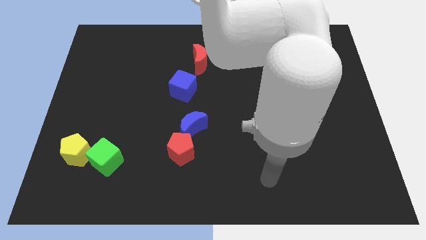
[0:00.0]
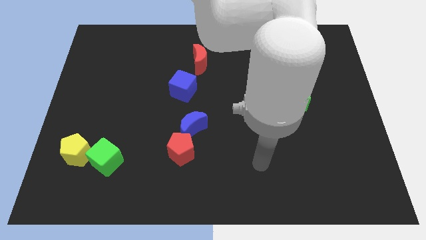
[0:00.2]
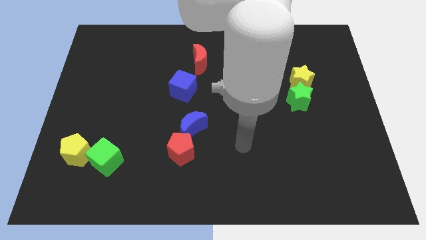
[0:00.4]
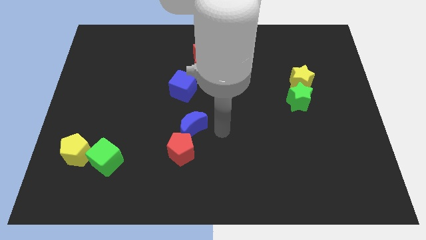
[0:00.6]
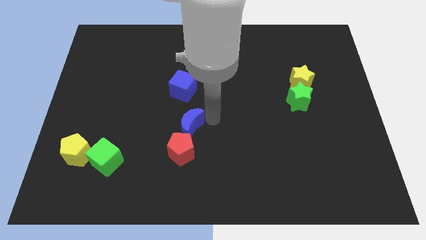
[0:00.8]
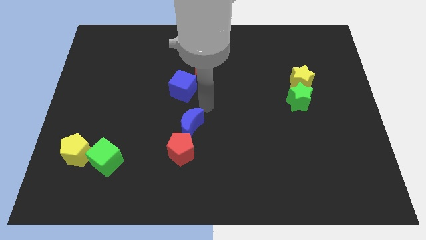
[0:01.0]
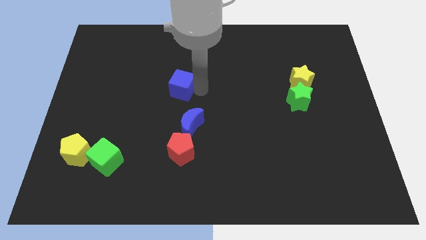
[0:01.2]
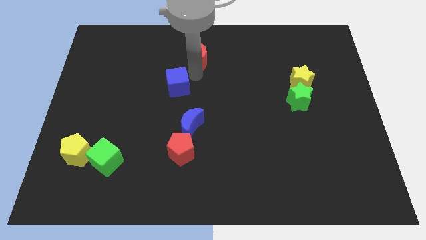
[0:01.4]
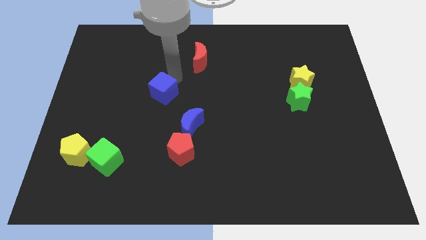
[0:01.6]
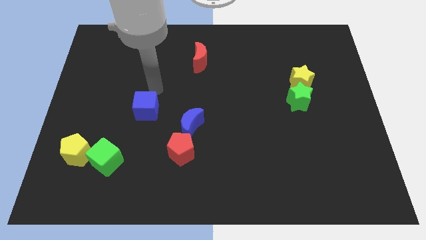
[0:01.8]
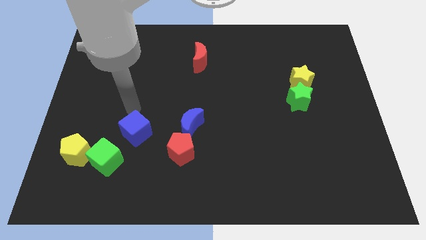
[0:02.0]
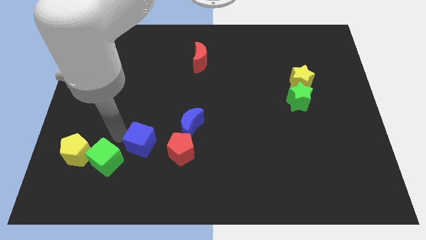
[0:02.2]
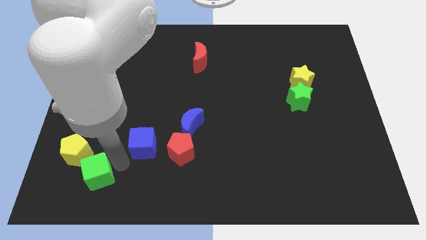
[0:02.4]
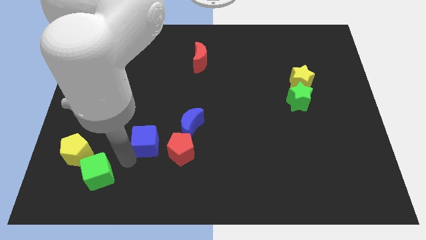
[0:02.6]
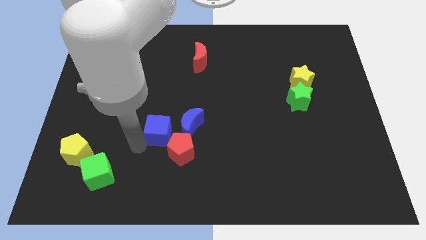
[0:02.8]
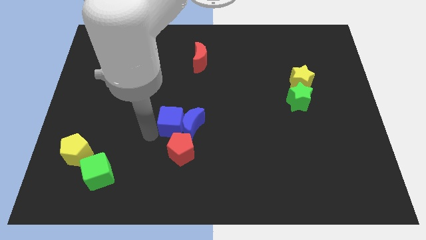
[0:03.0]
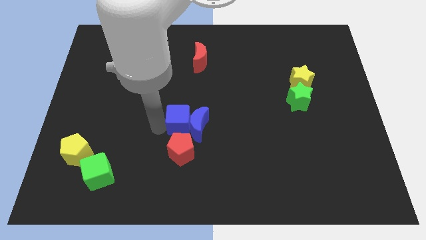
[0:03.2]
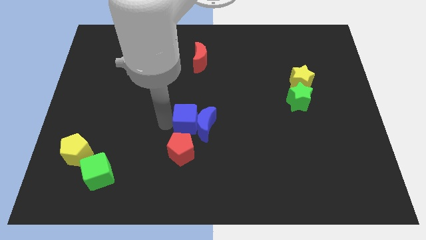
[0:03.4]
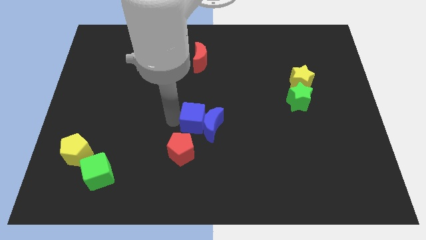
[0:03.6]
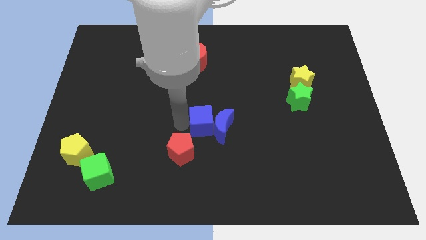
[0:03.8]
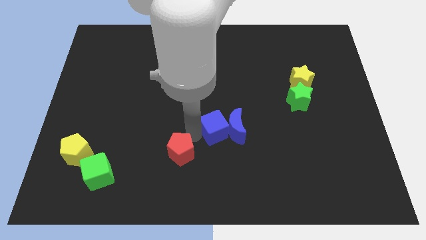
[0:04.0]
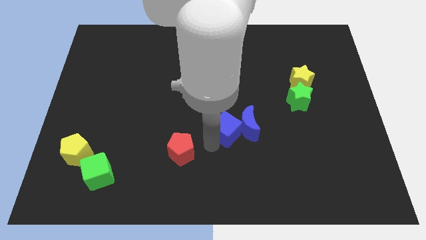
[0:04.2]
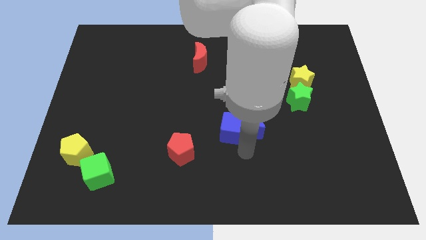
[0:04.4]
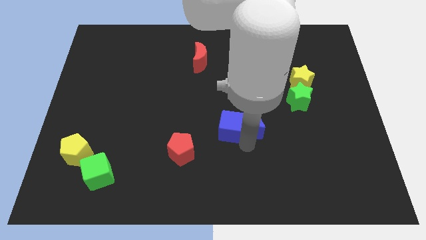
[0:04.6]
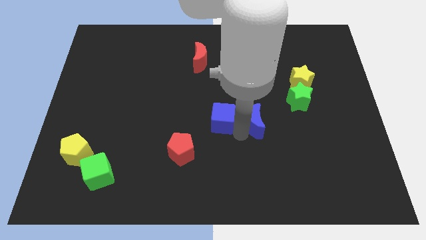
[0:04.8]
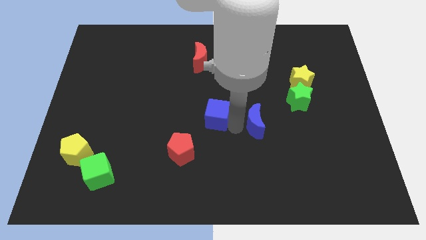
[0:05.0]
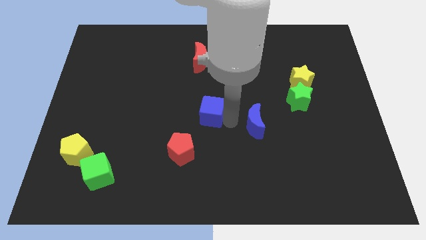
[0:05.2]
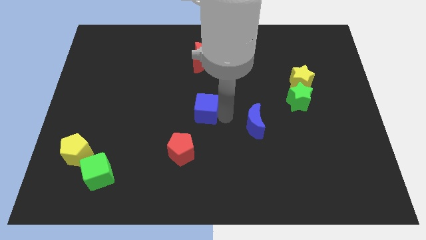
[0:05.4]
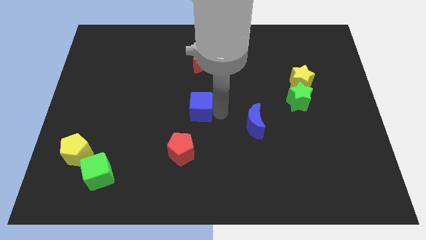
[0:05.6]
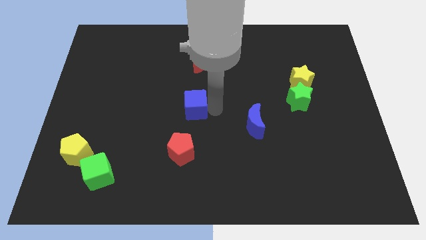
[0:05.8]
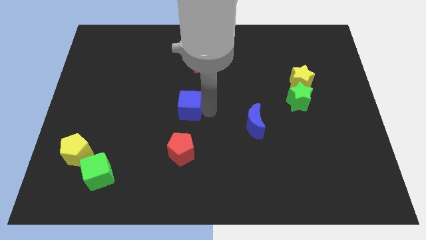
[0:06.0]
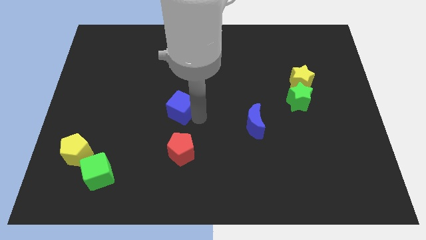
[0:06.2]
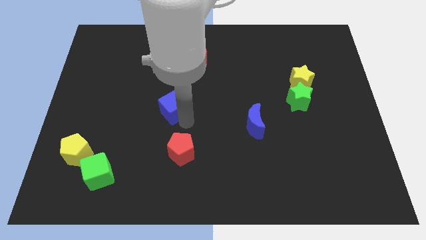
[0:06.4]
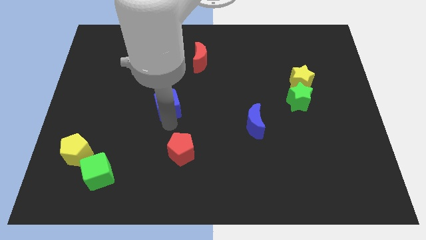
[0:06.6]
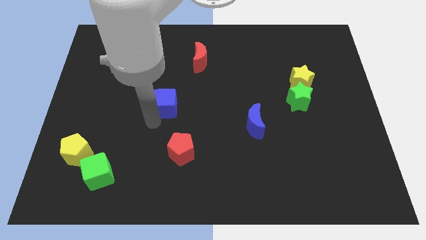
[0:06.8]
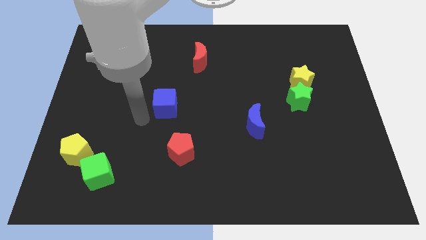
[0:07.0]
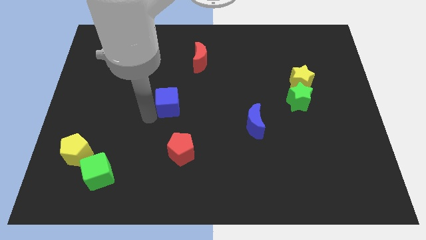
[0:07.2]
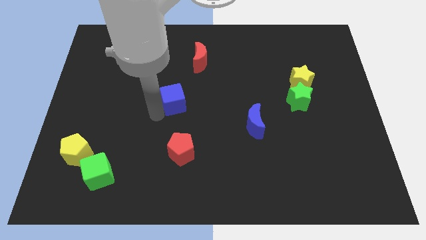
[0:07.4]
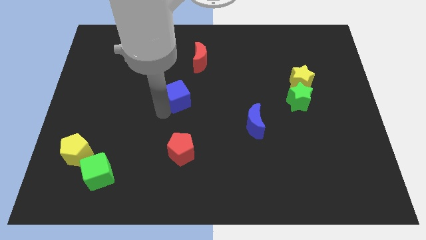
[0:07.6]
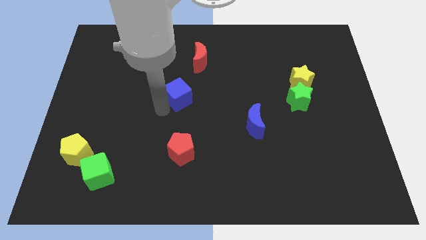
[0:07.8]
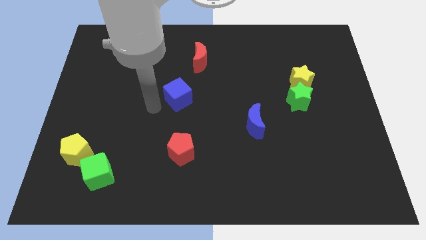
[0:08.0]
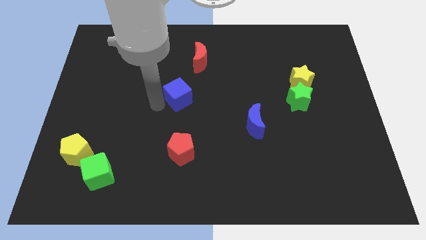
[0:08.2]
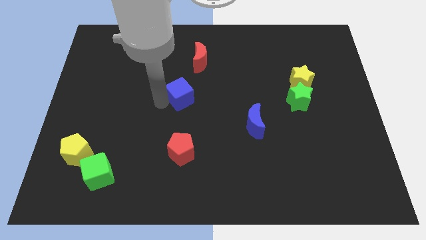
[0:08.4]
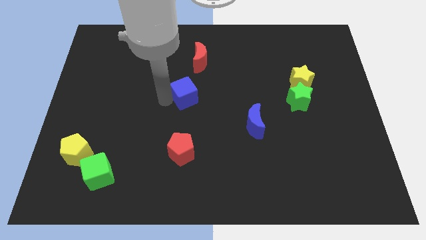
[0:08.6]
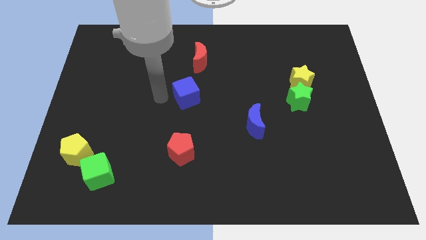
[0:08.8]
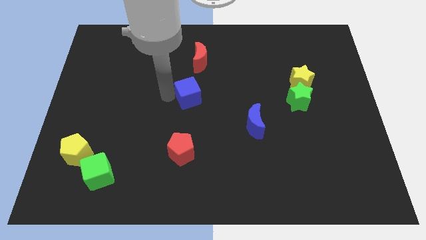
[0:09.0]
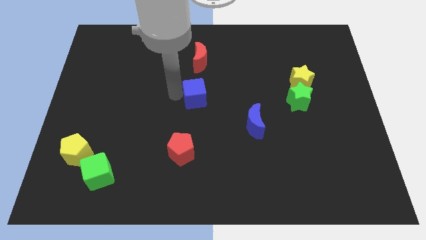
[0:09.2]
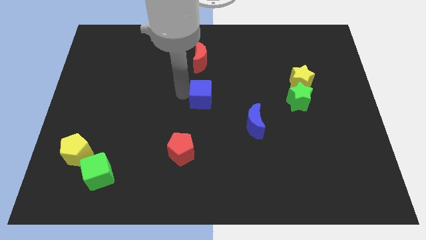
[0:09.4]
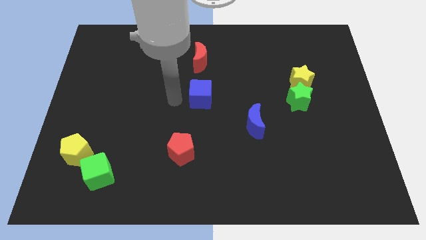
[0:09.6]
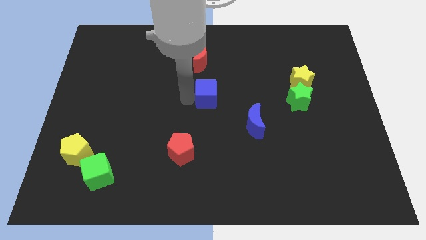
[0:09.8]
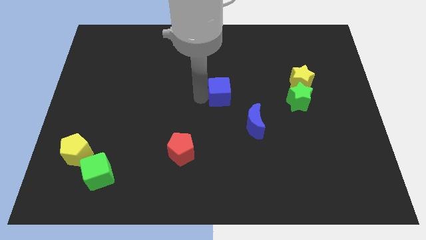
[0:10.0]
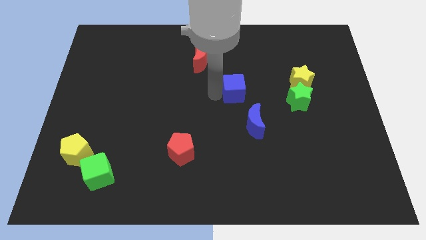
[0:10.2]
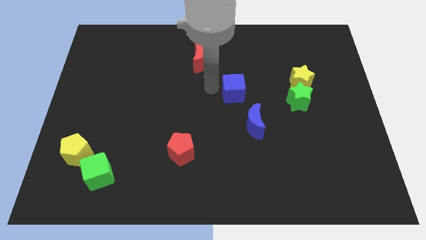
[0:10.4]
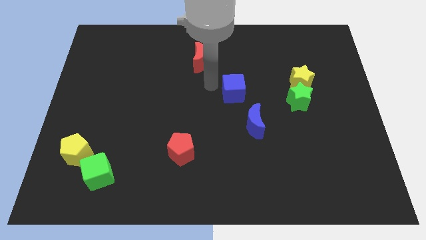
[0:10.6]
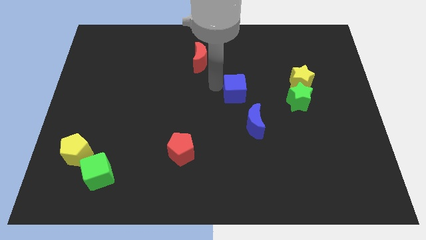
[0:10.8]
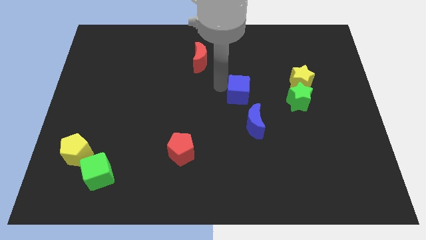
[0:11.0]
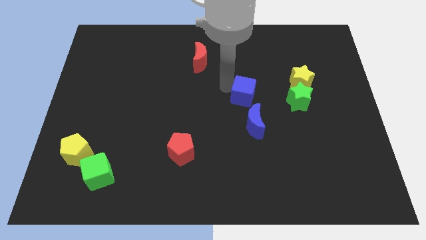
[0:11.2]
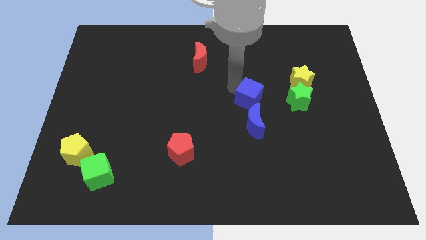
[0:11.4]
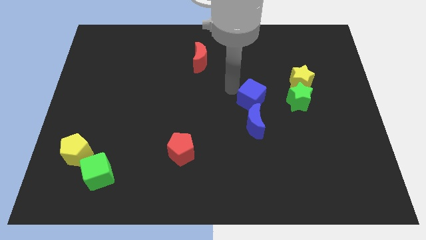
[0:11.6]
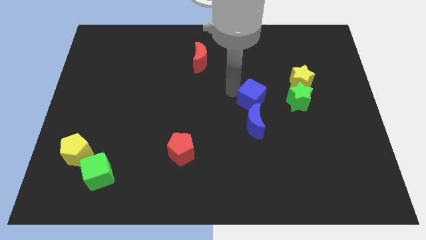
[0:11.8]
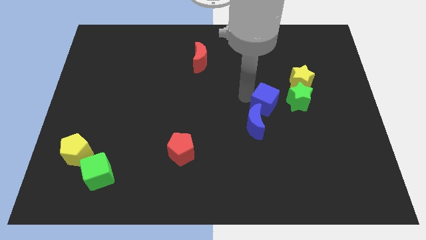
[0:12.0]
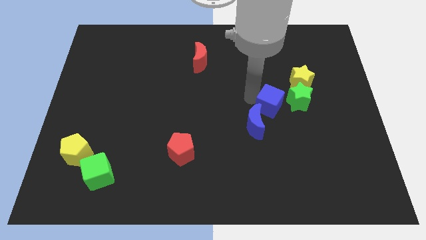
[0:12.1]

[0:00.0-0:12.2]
move the blue cube right

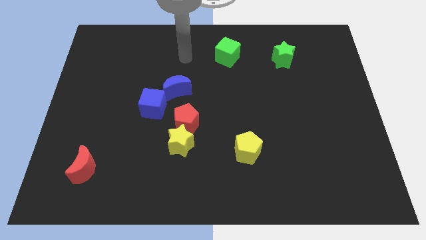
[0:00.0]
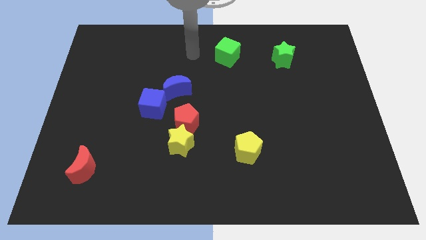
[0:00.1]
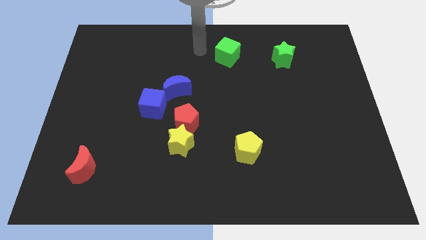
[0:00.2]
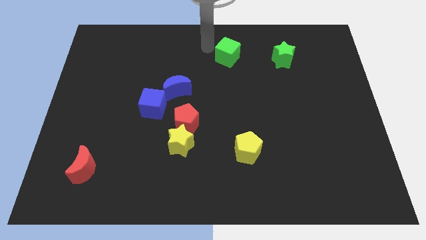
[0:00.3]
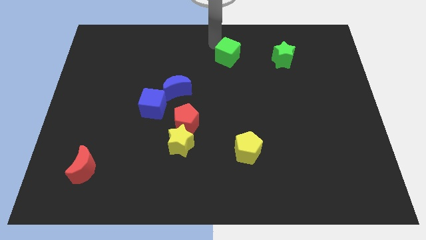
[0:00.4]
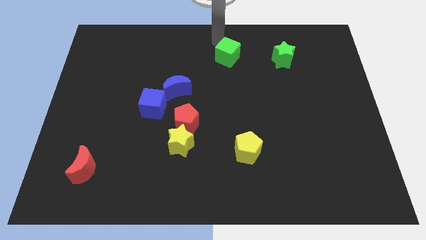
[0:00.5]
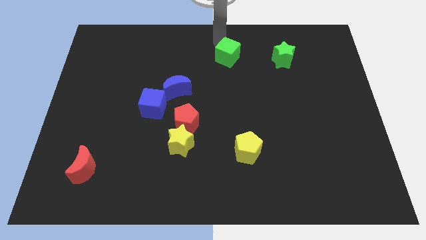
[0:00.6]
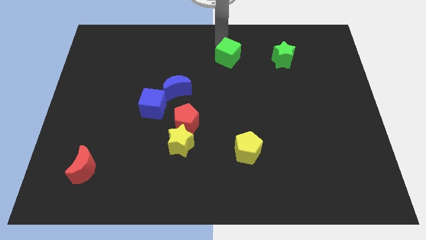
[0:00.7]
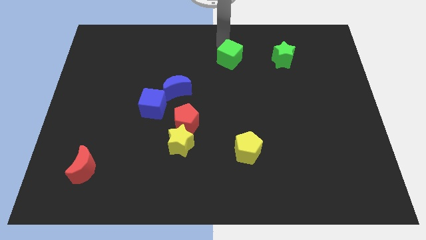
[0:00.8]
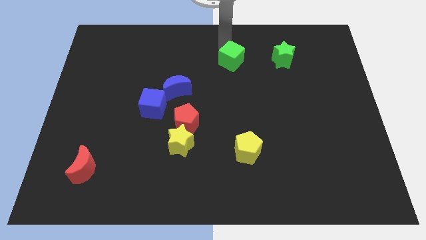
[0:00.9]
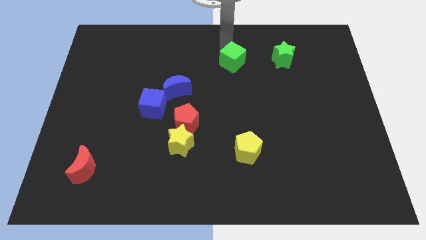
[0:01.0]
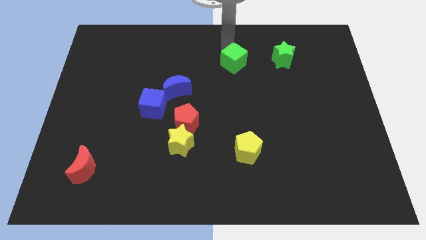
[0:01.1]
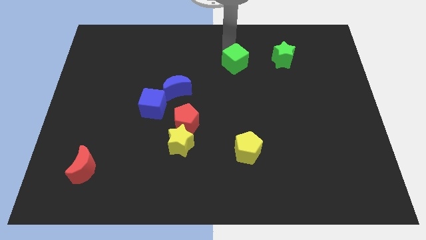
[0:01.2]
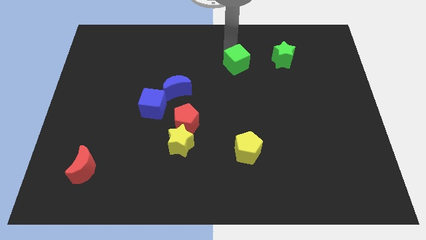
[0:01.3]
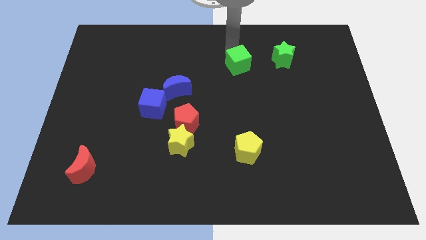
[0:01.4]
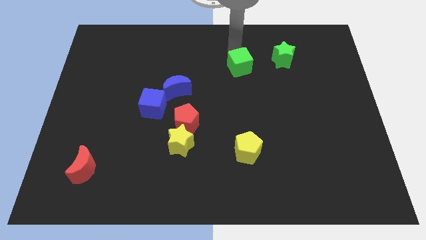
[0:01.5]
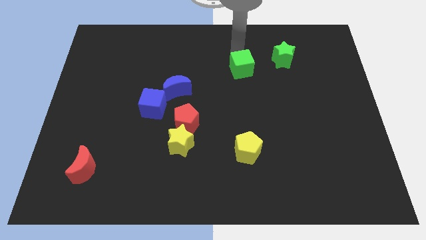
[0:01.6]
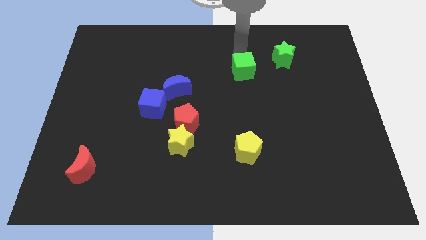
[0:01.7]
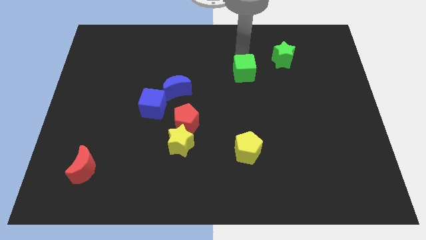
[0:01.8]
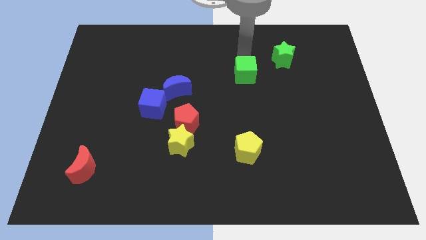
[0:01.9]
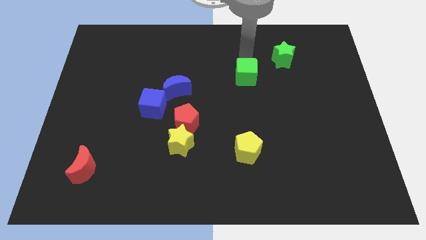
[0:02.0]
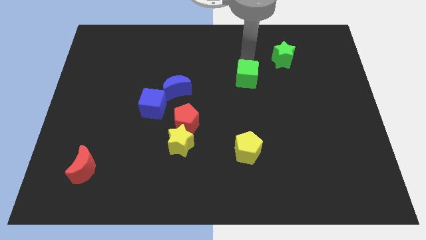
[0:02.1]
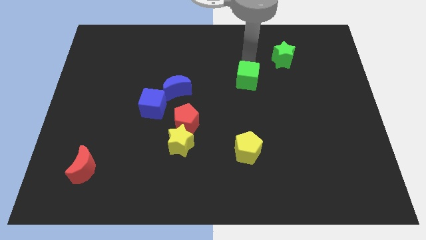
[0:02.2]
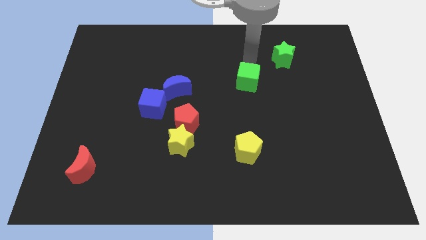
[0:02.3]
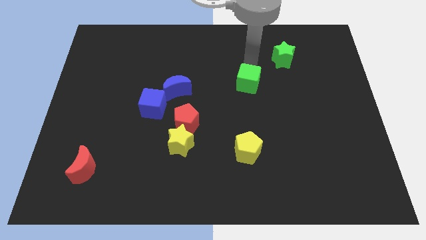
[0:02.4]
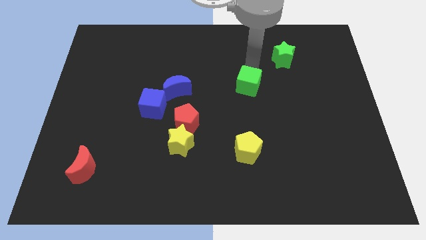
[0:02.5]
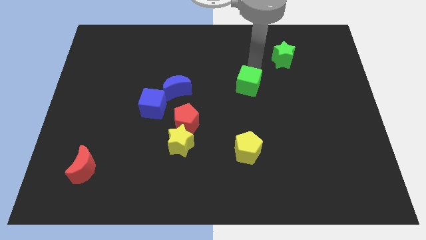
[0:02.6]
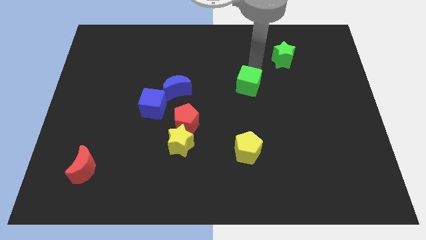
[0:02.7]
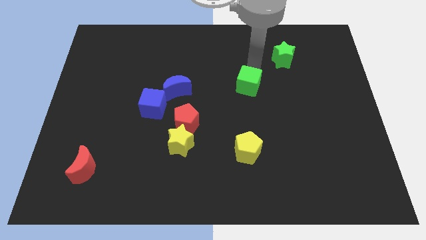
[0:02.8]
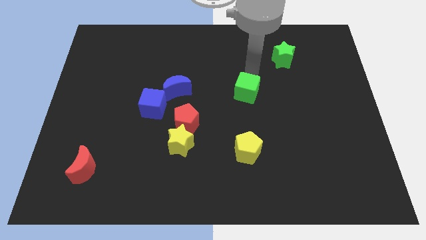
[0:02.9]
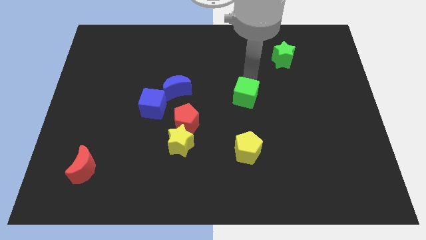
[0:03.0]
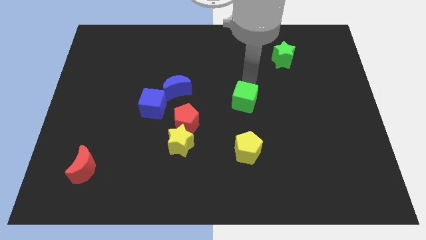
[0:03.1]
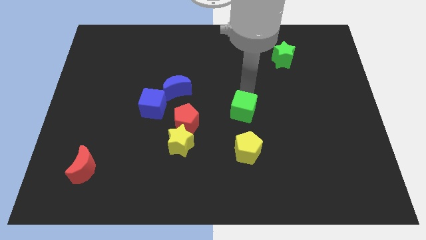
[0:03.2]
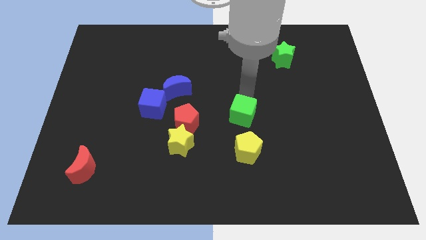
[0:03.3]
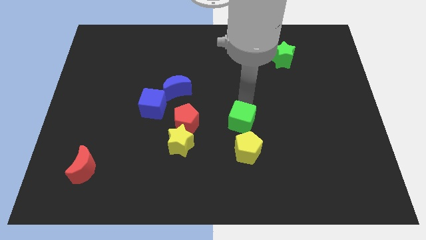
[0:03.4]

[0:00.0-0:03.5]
push the green cube downwards
